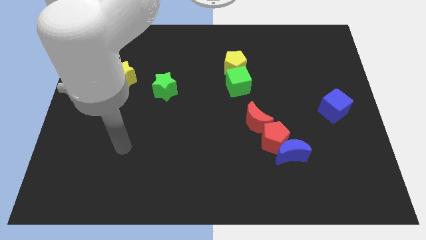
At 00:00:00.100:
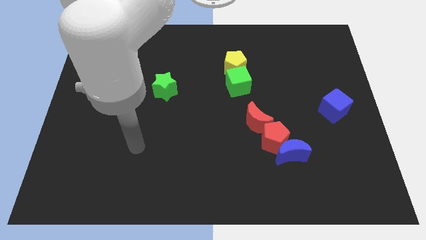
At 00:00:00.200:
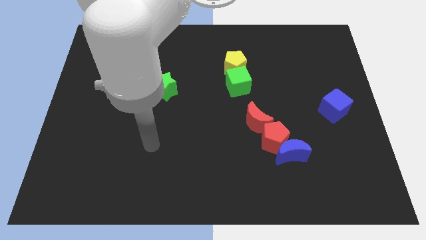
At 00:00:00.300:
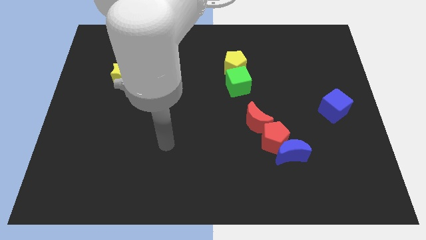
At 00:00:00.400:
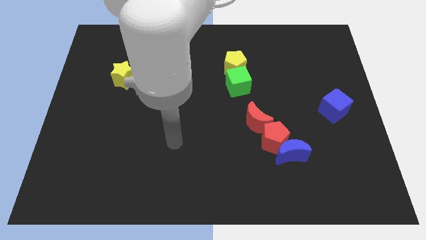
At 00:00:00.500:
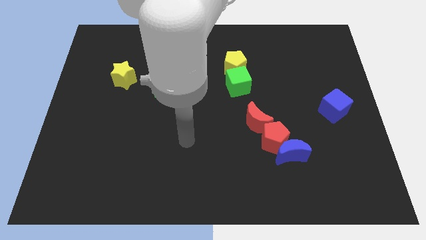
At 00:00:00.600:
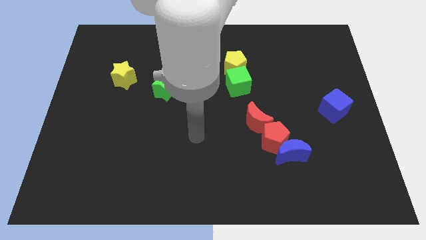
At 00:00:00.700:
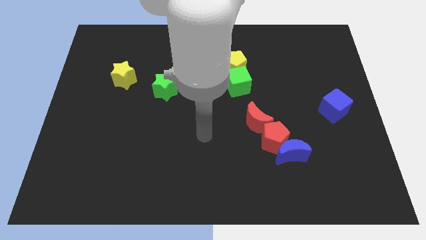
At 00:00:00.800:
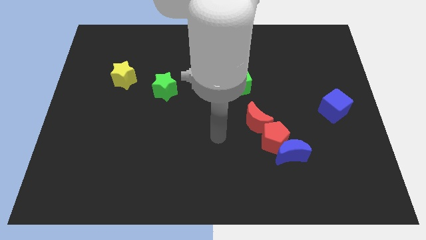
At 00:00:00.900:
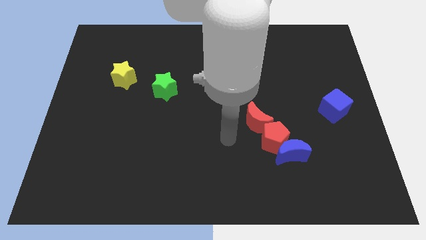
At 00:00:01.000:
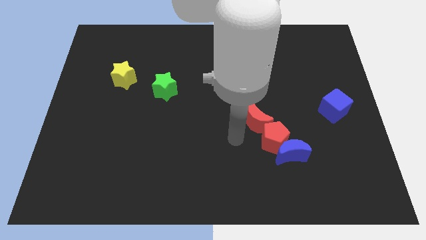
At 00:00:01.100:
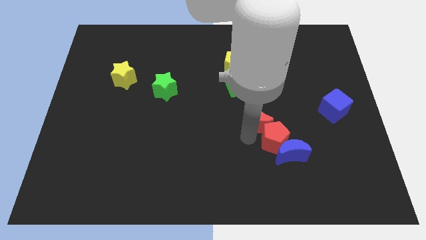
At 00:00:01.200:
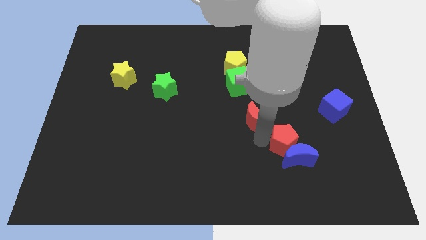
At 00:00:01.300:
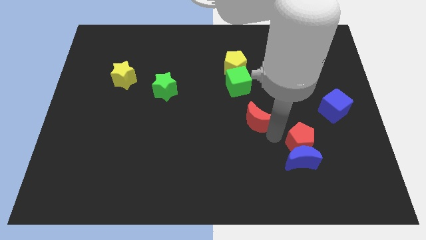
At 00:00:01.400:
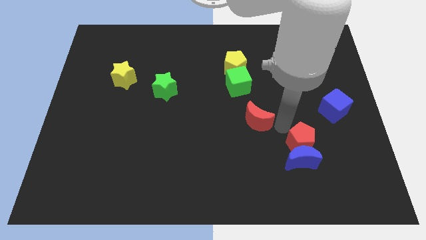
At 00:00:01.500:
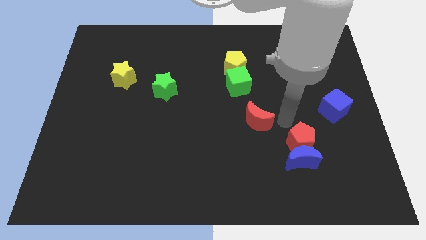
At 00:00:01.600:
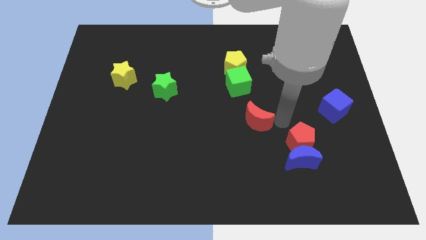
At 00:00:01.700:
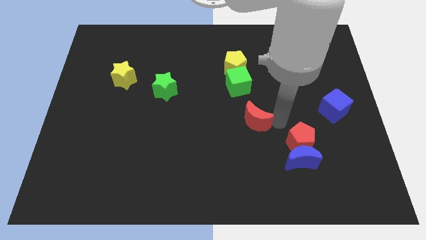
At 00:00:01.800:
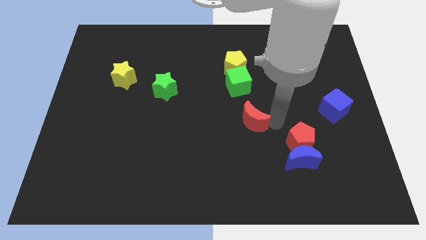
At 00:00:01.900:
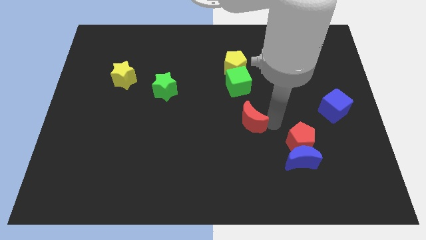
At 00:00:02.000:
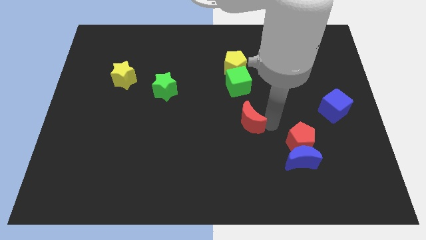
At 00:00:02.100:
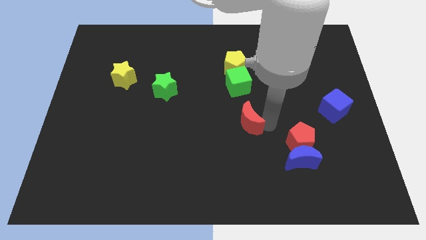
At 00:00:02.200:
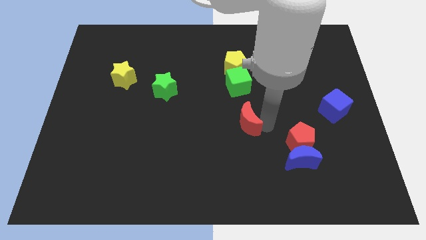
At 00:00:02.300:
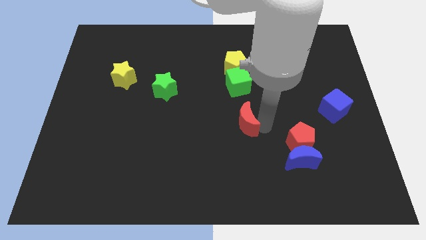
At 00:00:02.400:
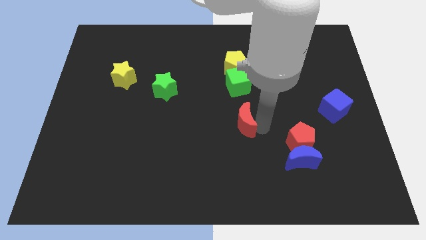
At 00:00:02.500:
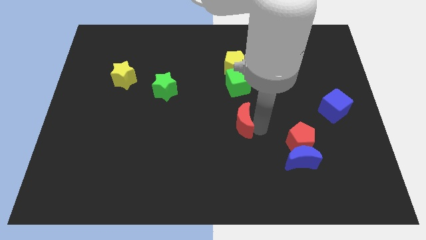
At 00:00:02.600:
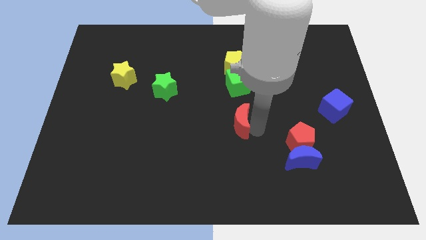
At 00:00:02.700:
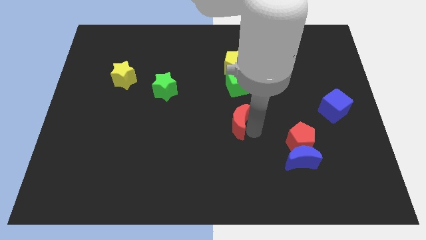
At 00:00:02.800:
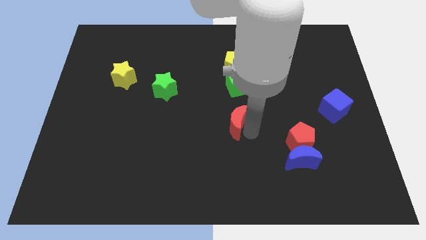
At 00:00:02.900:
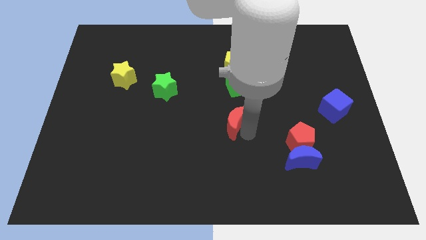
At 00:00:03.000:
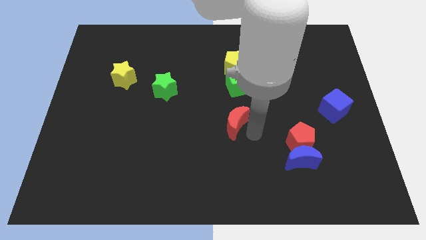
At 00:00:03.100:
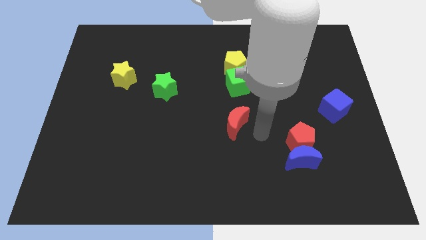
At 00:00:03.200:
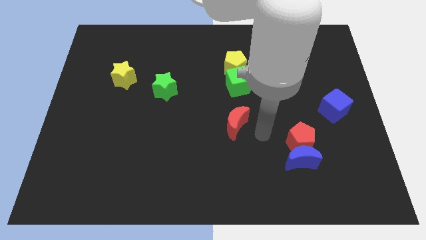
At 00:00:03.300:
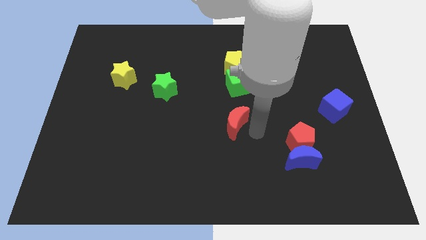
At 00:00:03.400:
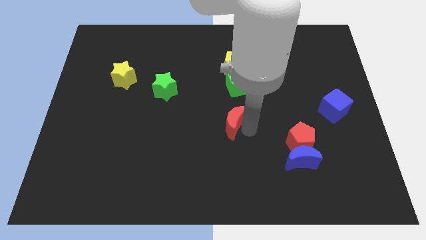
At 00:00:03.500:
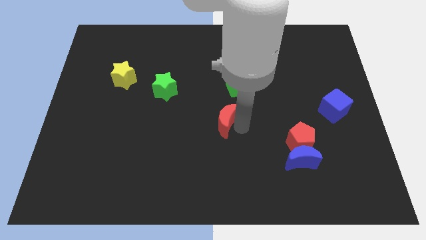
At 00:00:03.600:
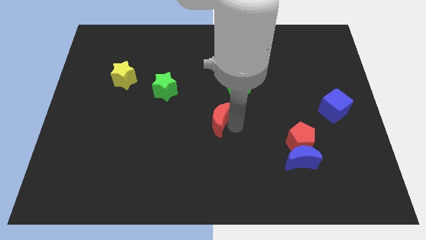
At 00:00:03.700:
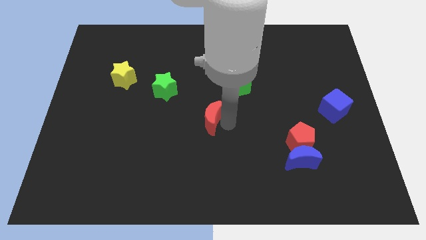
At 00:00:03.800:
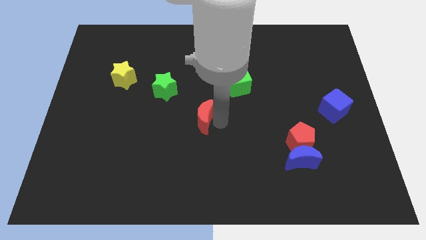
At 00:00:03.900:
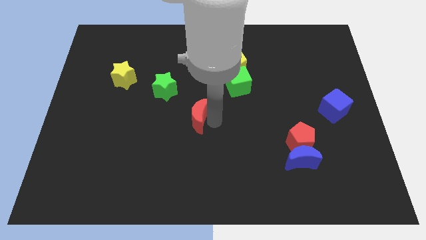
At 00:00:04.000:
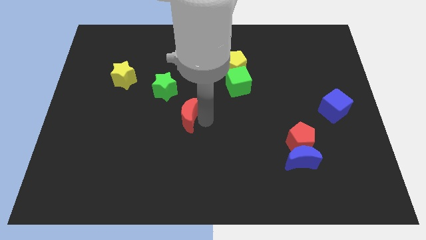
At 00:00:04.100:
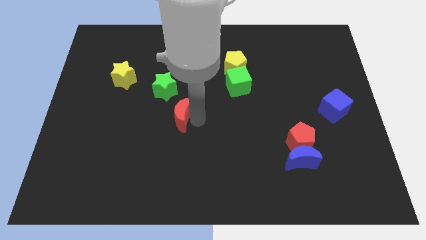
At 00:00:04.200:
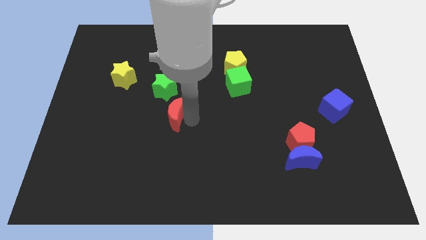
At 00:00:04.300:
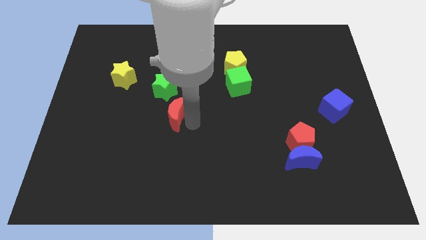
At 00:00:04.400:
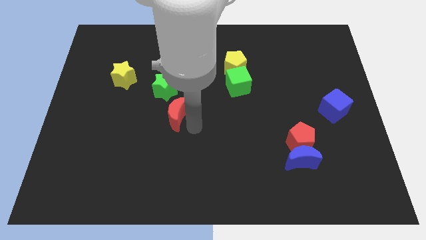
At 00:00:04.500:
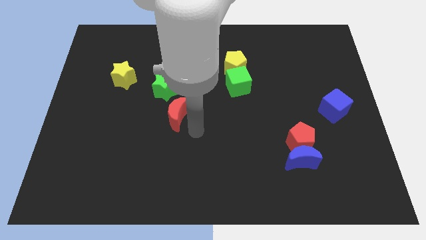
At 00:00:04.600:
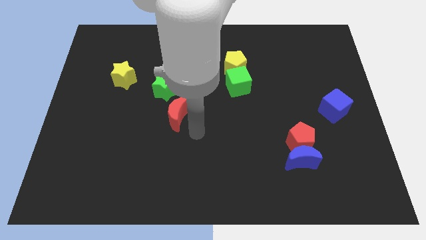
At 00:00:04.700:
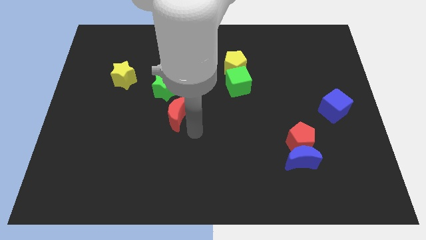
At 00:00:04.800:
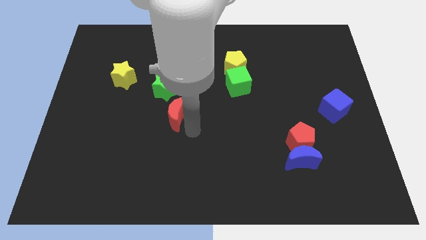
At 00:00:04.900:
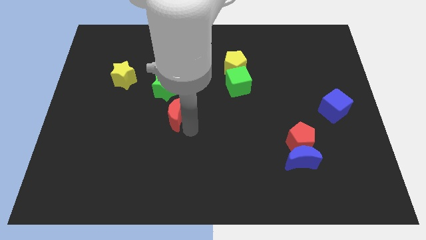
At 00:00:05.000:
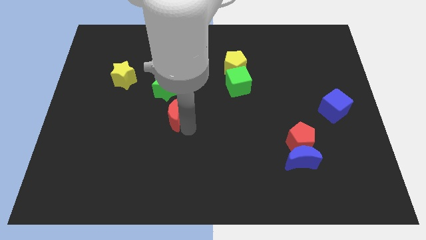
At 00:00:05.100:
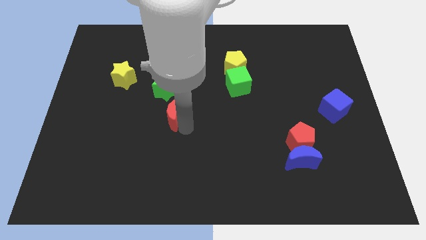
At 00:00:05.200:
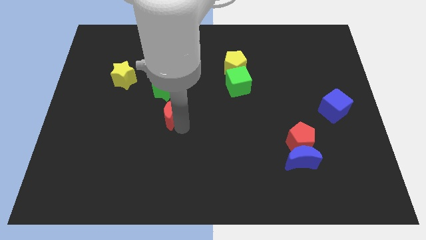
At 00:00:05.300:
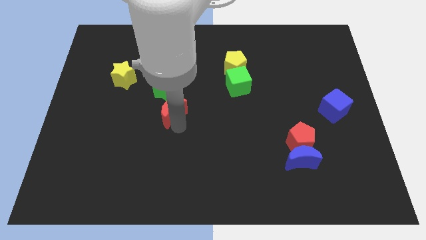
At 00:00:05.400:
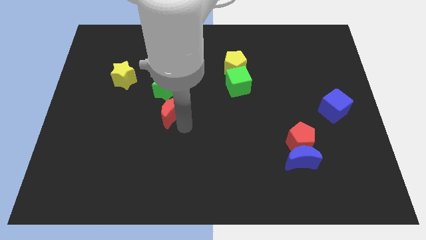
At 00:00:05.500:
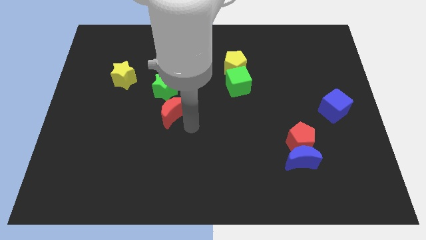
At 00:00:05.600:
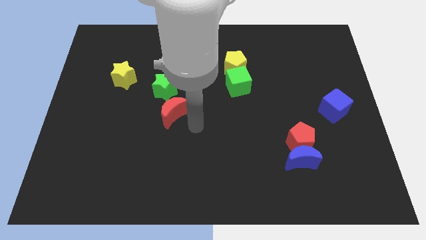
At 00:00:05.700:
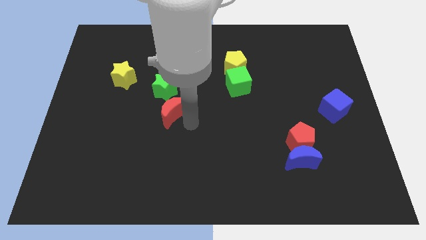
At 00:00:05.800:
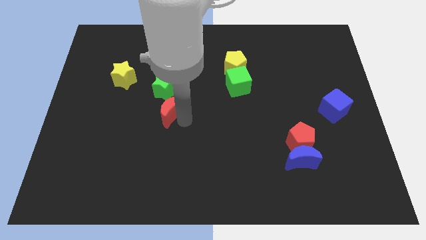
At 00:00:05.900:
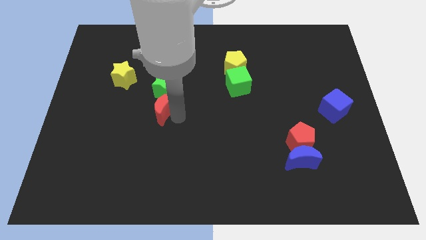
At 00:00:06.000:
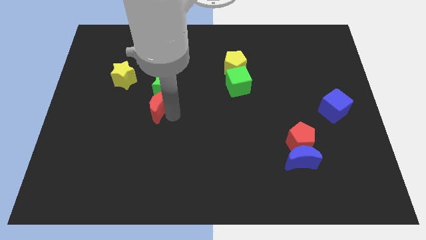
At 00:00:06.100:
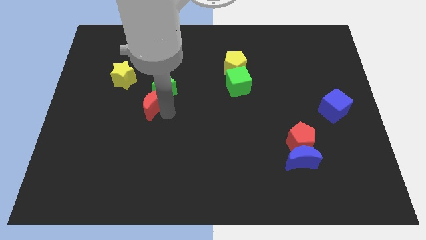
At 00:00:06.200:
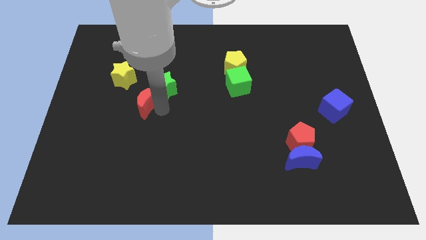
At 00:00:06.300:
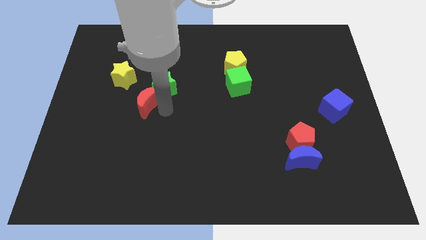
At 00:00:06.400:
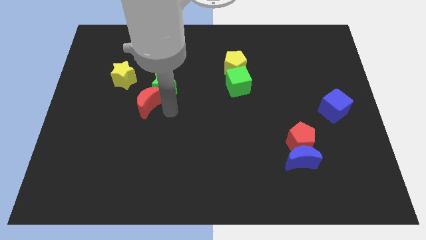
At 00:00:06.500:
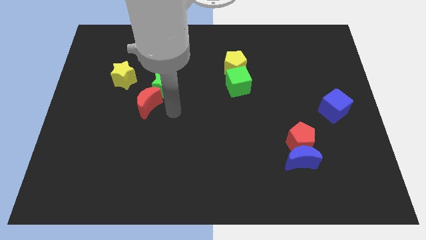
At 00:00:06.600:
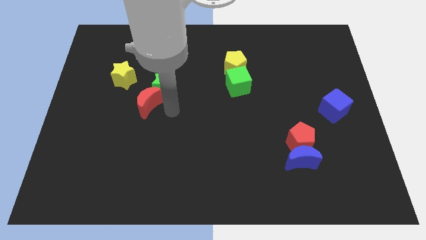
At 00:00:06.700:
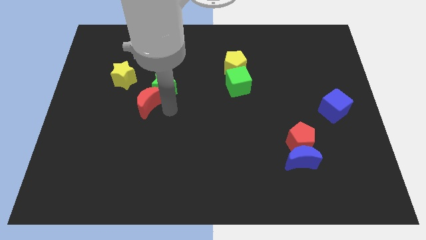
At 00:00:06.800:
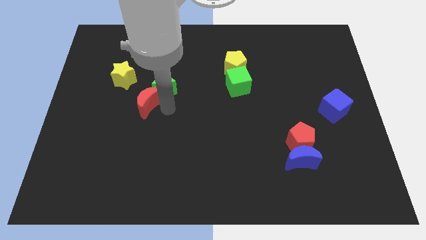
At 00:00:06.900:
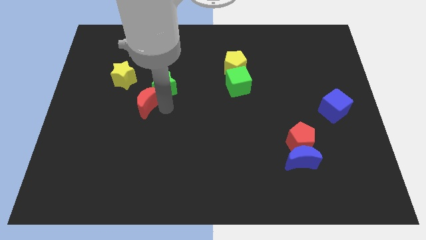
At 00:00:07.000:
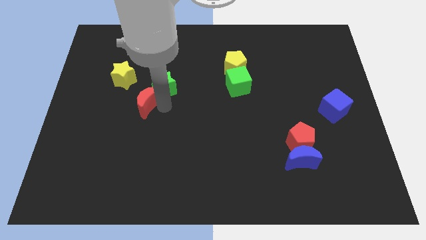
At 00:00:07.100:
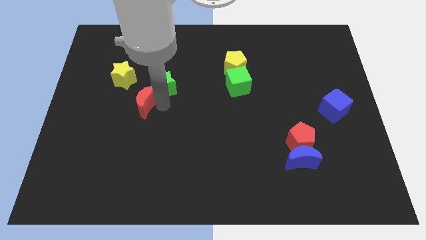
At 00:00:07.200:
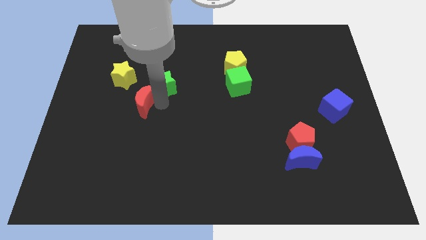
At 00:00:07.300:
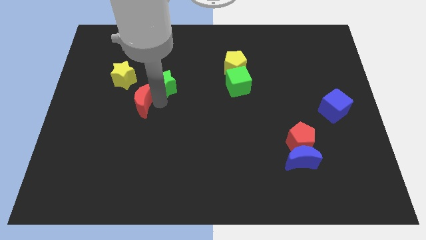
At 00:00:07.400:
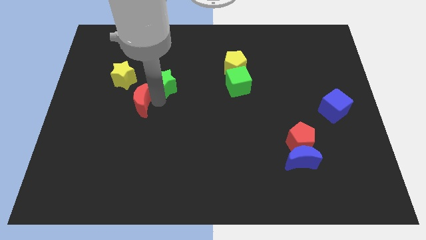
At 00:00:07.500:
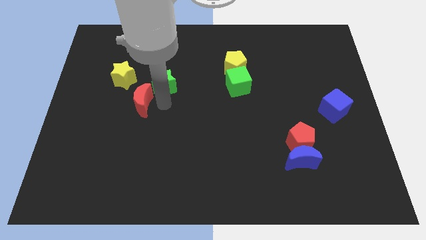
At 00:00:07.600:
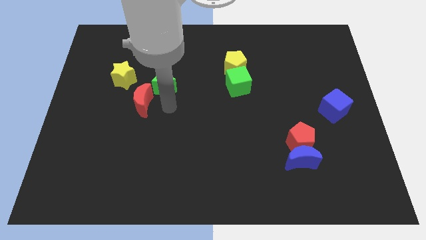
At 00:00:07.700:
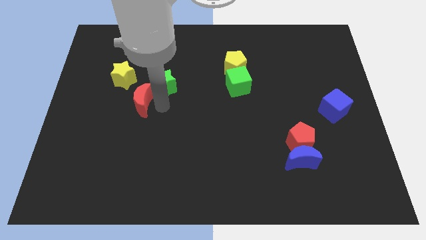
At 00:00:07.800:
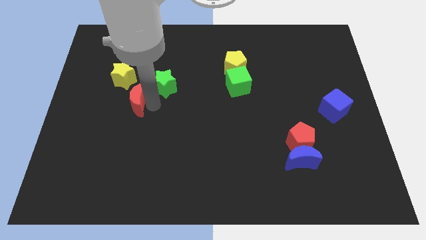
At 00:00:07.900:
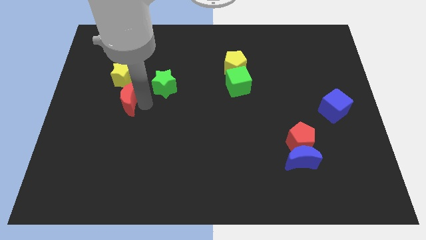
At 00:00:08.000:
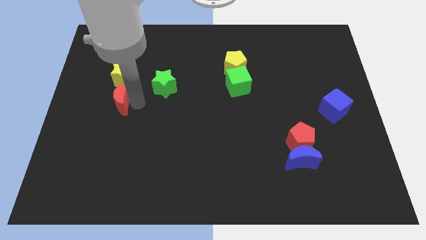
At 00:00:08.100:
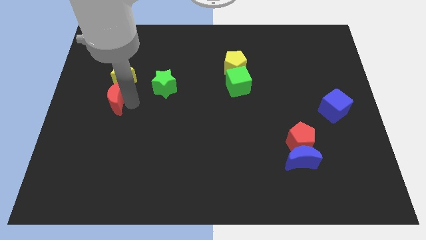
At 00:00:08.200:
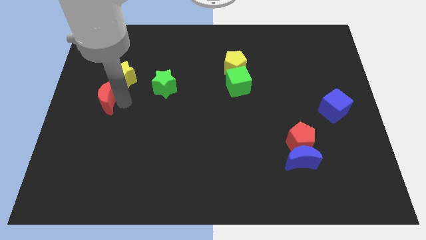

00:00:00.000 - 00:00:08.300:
move the red moon to the left side
